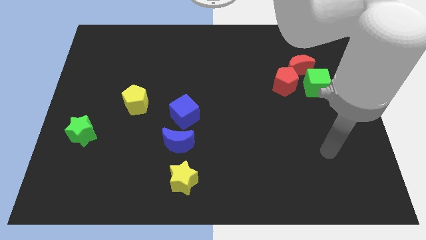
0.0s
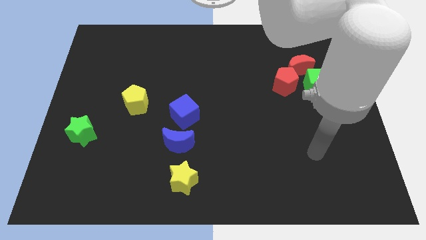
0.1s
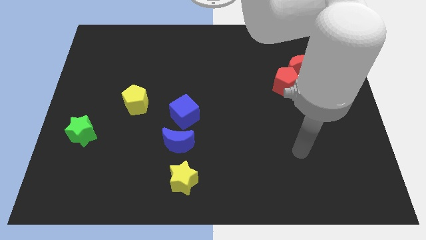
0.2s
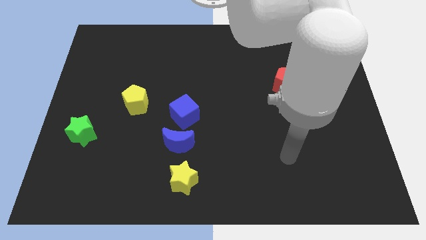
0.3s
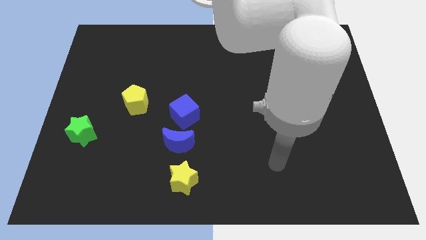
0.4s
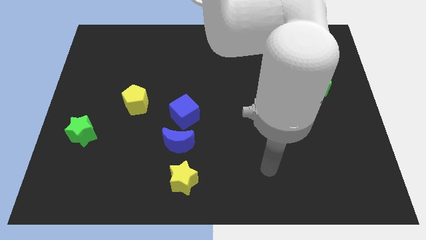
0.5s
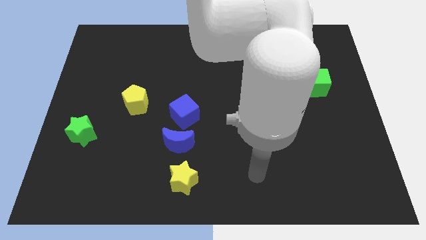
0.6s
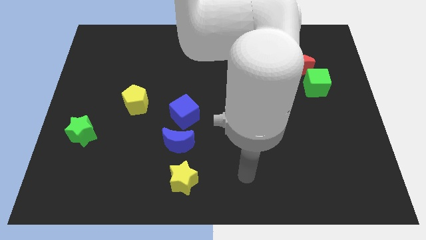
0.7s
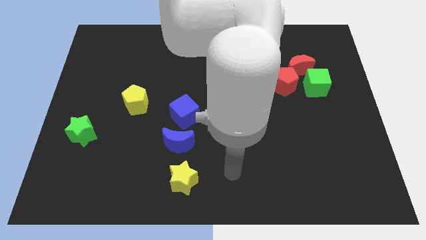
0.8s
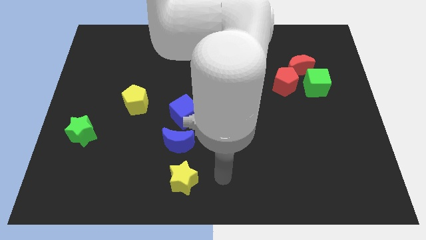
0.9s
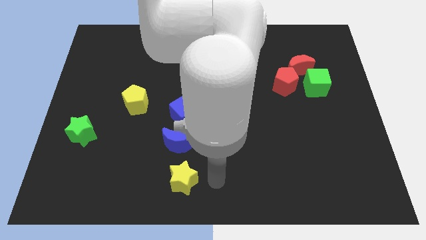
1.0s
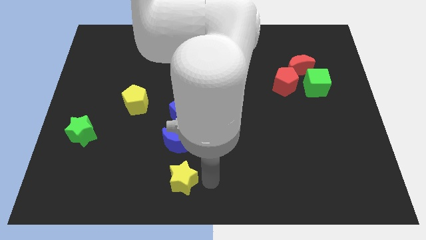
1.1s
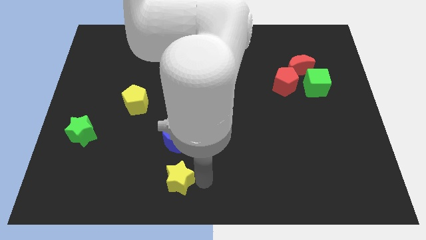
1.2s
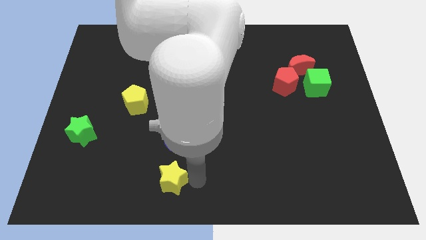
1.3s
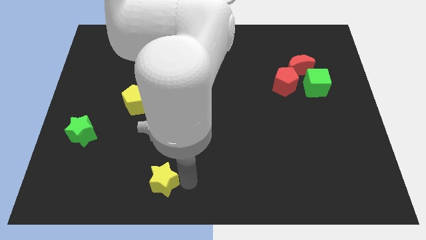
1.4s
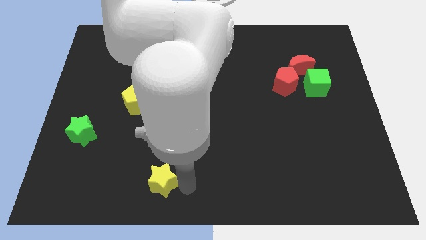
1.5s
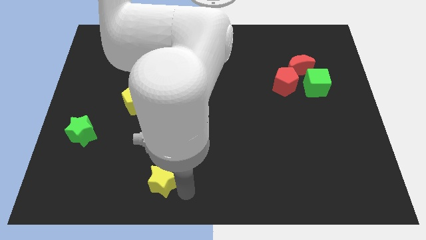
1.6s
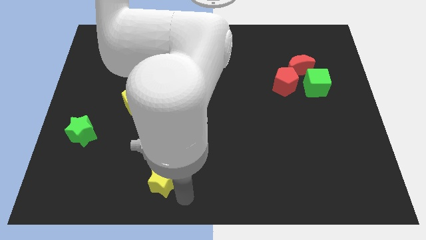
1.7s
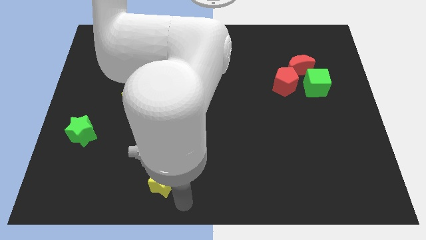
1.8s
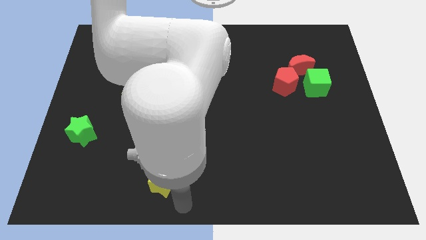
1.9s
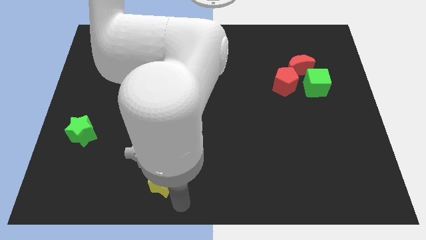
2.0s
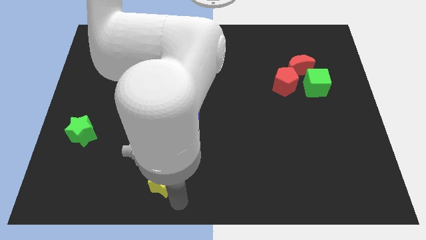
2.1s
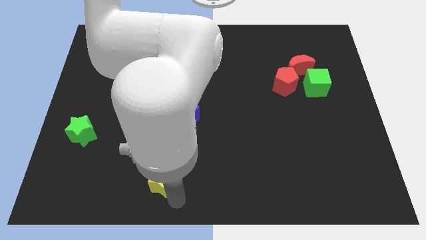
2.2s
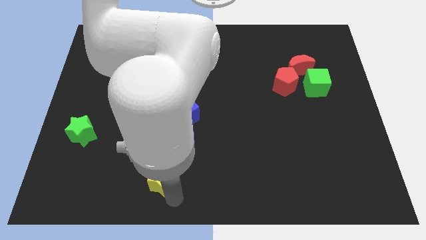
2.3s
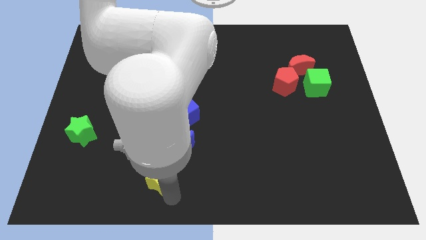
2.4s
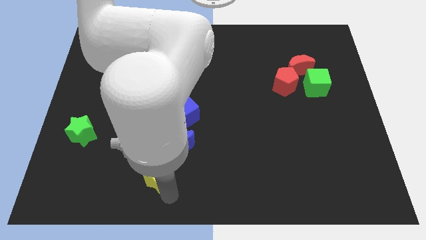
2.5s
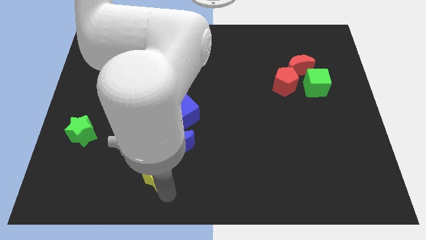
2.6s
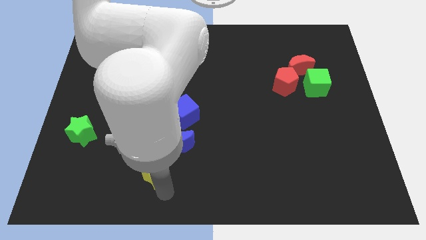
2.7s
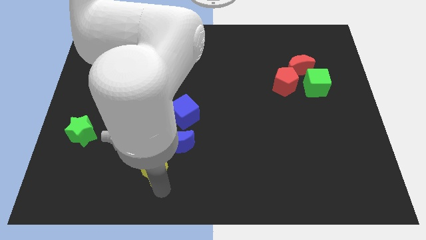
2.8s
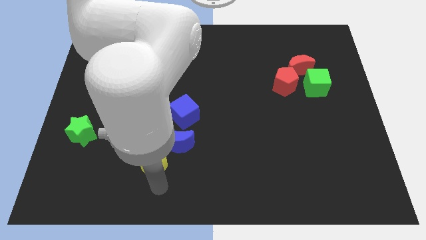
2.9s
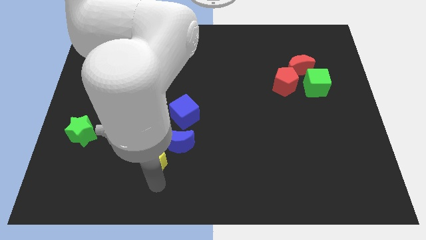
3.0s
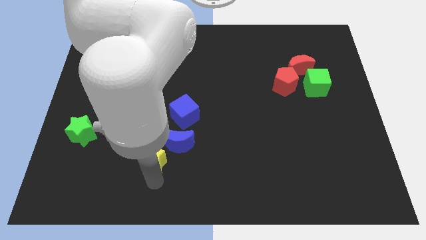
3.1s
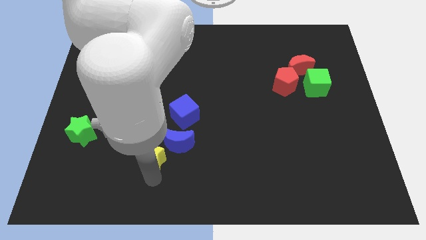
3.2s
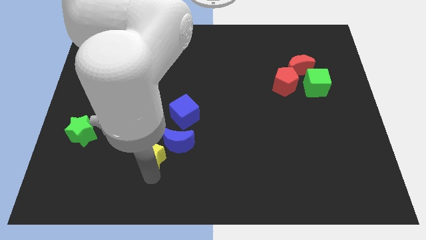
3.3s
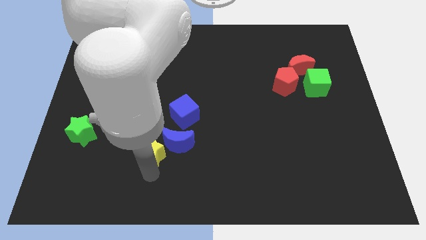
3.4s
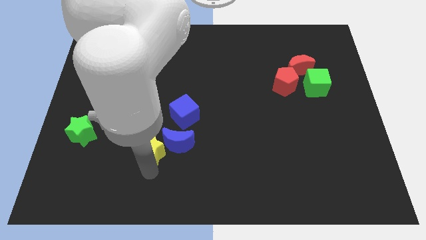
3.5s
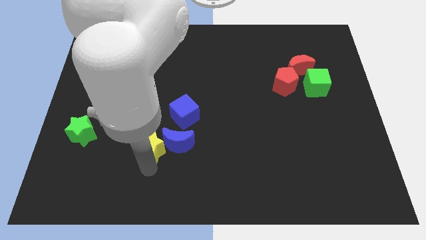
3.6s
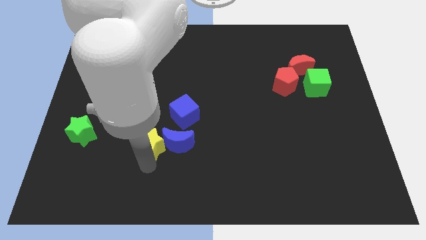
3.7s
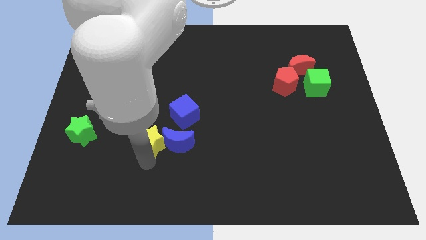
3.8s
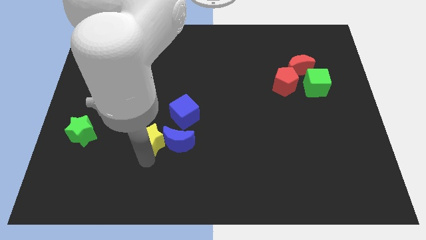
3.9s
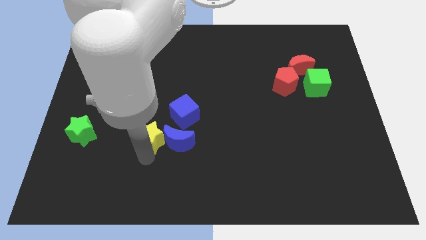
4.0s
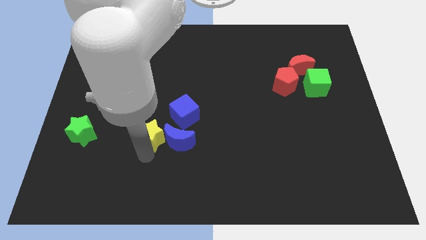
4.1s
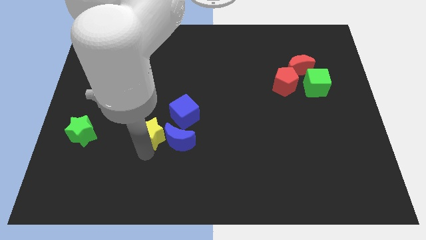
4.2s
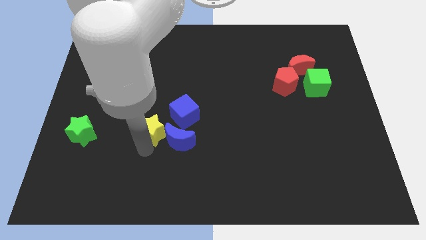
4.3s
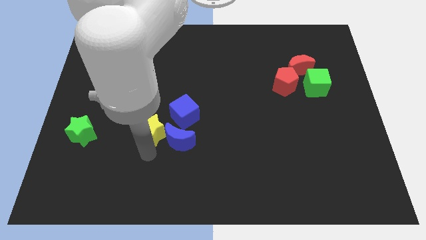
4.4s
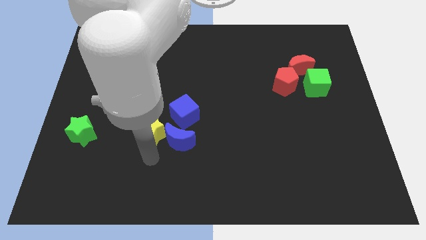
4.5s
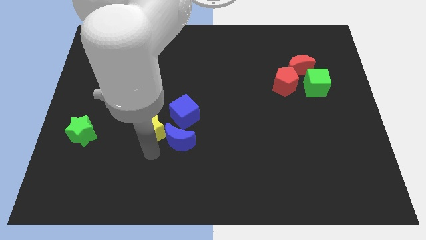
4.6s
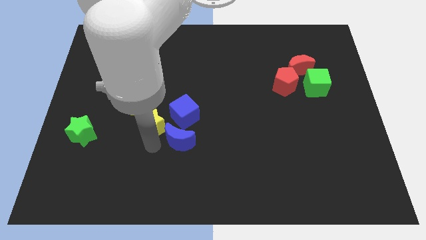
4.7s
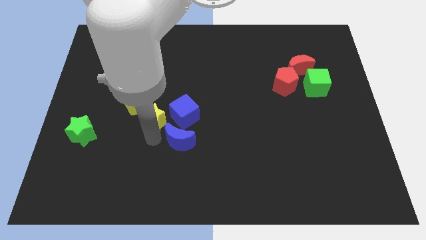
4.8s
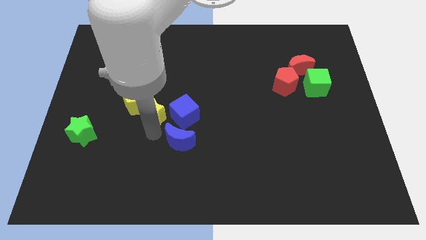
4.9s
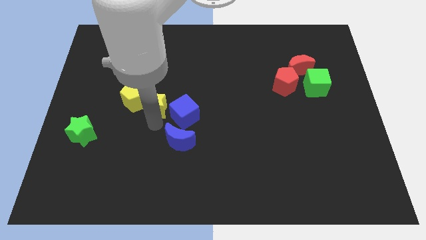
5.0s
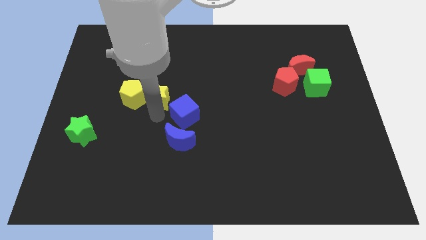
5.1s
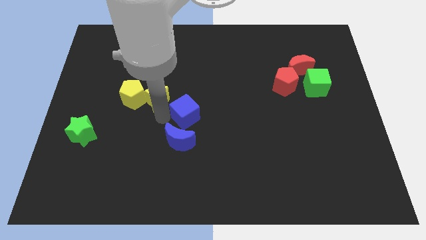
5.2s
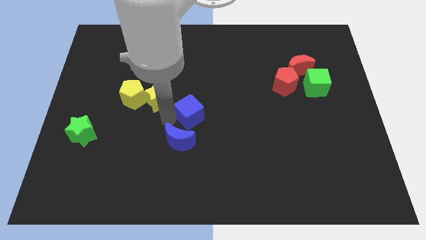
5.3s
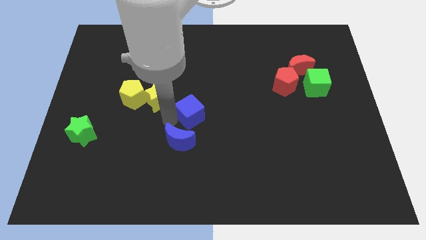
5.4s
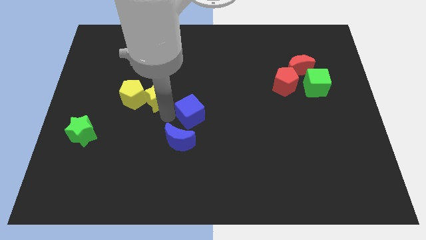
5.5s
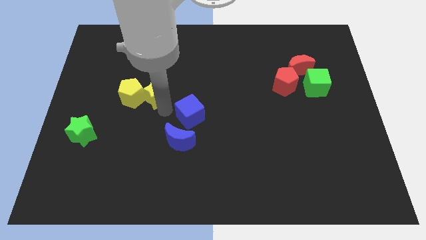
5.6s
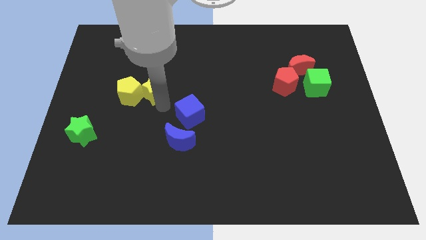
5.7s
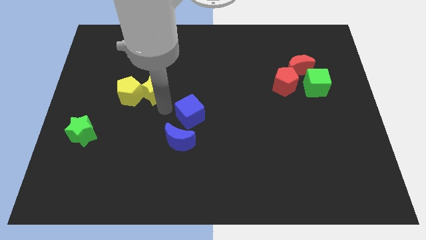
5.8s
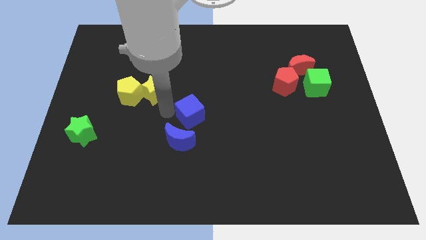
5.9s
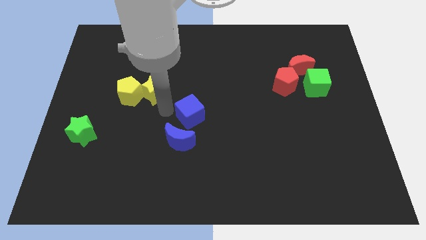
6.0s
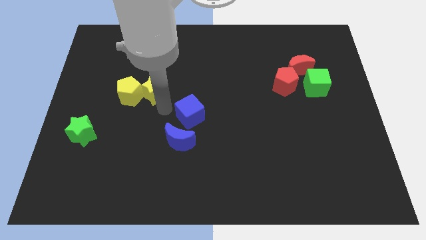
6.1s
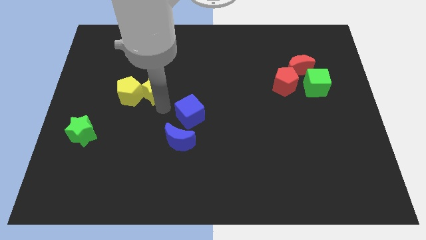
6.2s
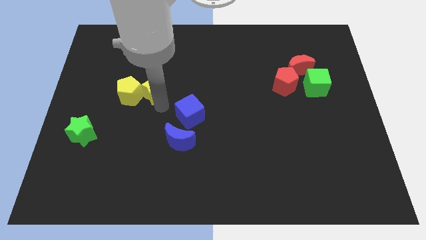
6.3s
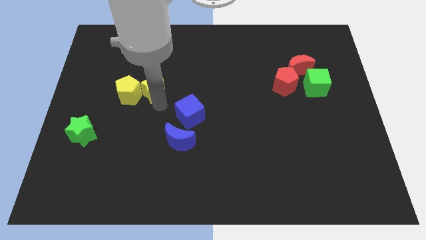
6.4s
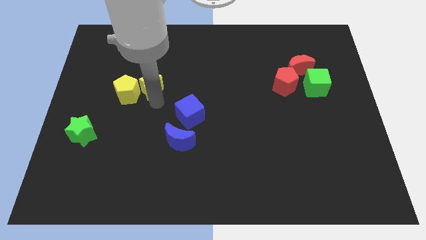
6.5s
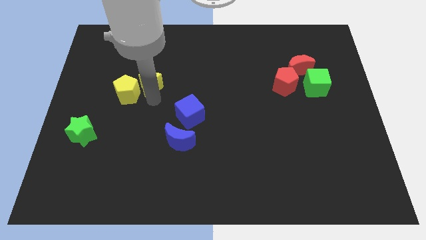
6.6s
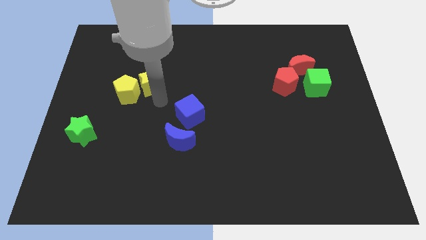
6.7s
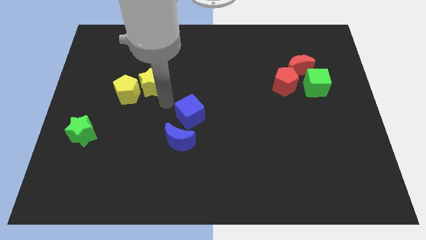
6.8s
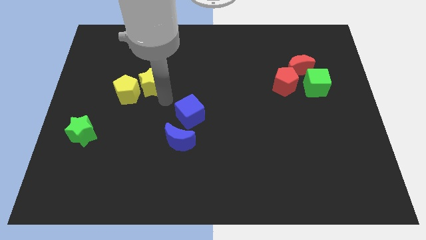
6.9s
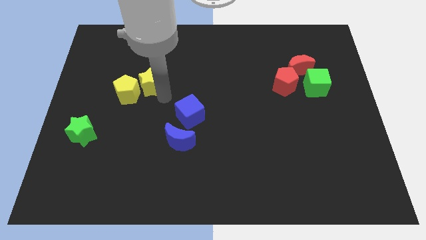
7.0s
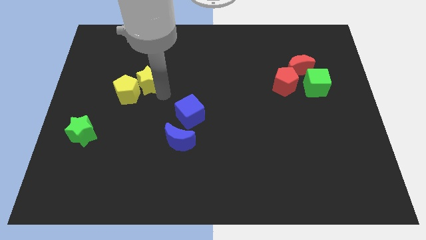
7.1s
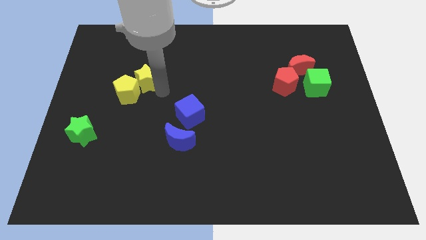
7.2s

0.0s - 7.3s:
move the yellow star above the yellow pentagon
